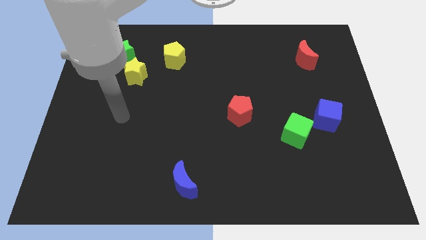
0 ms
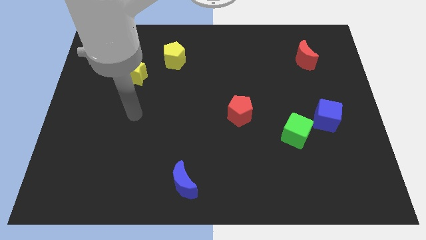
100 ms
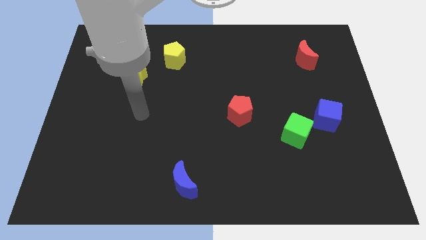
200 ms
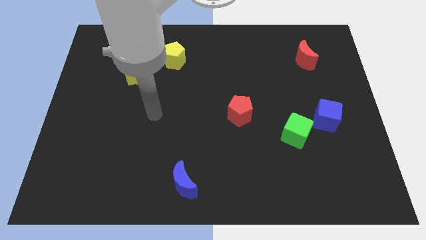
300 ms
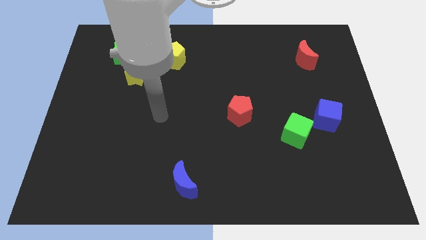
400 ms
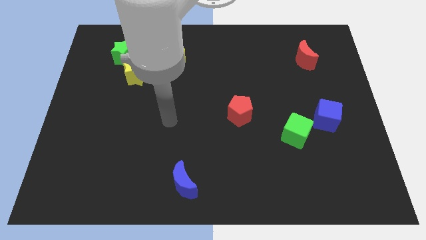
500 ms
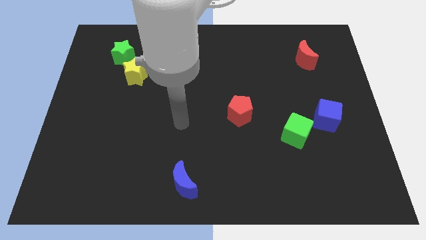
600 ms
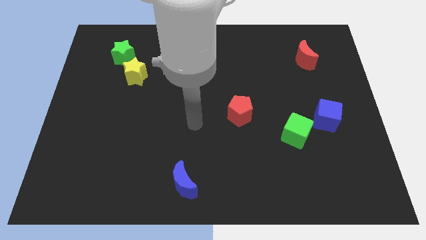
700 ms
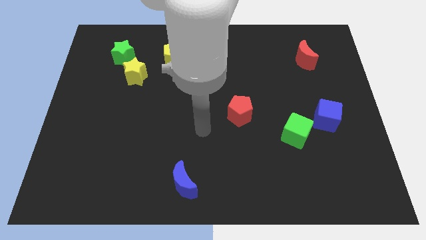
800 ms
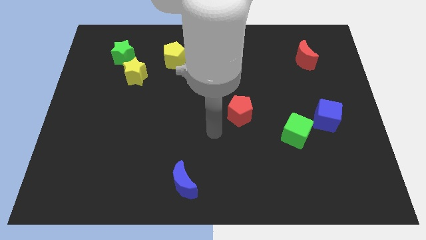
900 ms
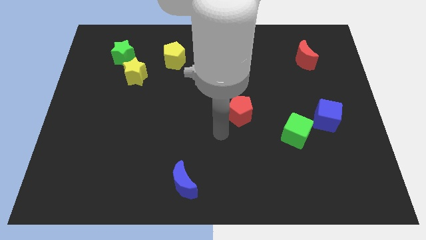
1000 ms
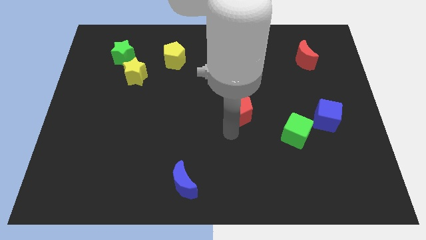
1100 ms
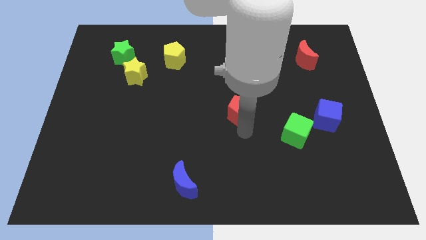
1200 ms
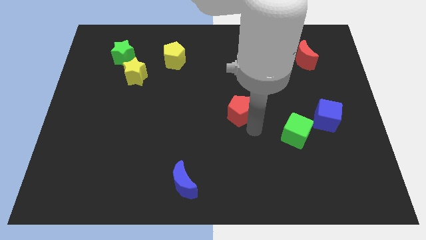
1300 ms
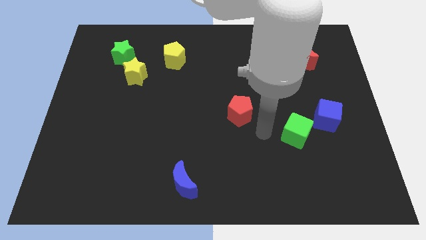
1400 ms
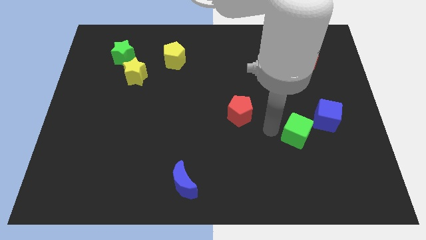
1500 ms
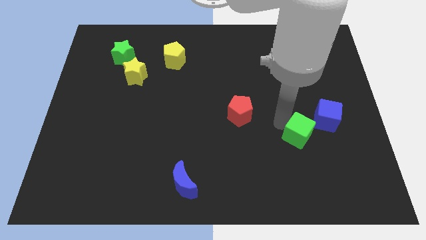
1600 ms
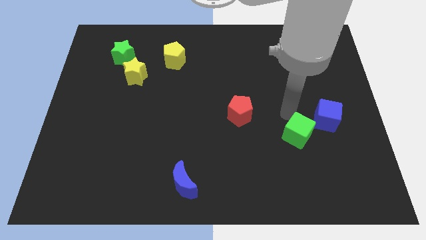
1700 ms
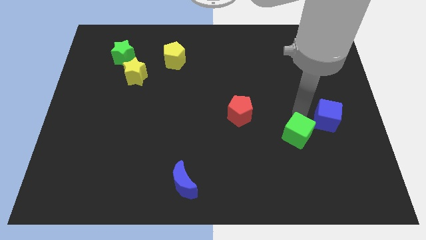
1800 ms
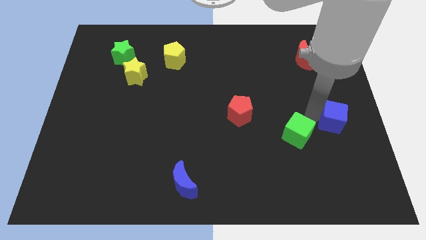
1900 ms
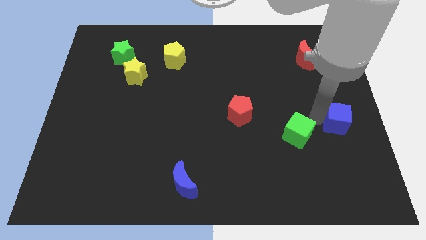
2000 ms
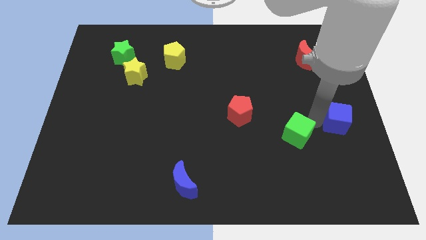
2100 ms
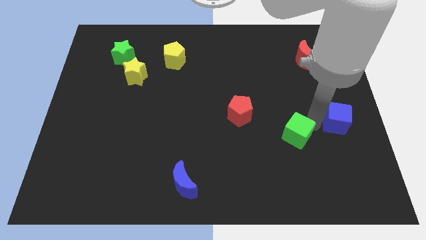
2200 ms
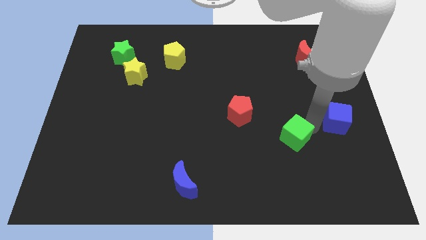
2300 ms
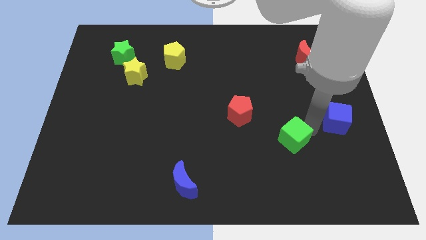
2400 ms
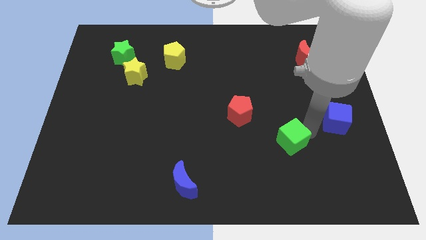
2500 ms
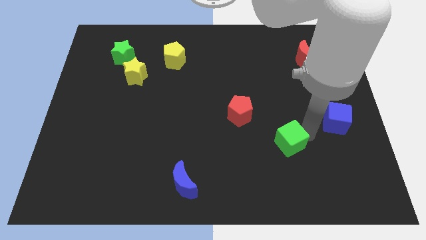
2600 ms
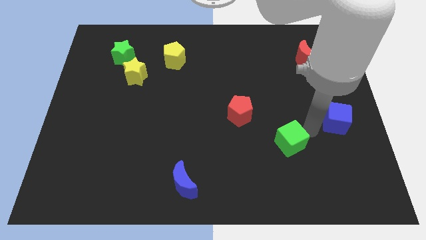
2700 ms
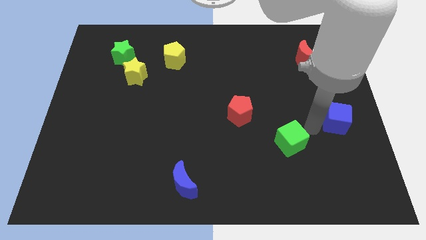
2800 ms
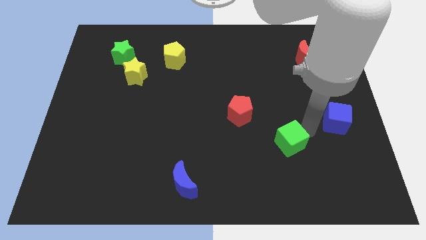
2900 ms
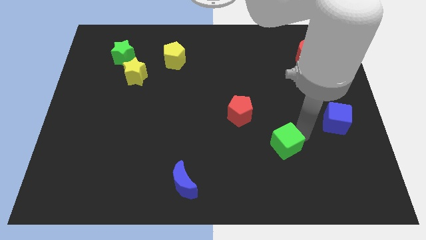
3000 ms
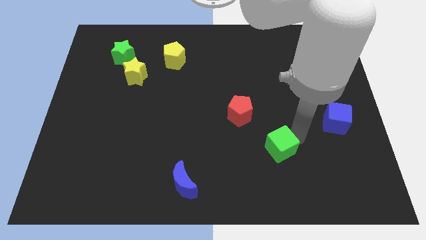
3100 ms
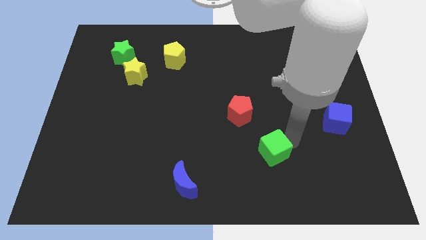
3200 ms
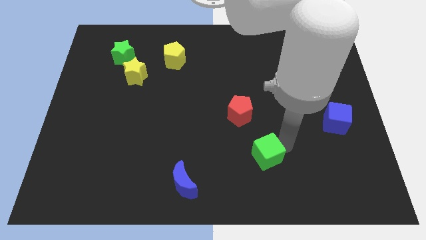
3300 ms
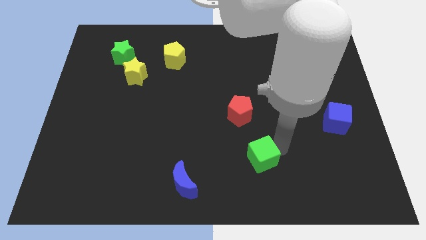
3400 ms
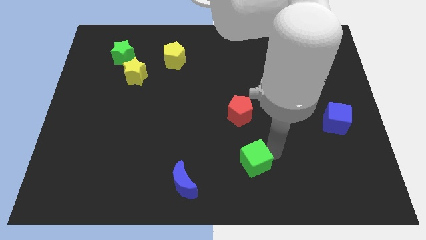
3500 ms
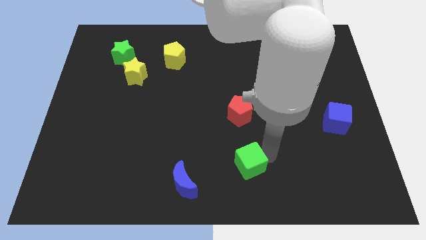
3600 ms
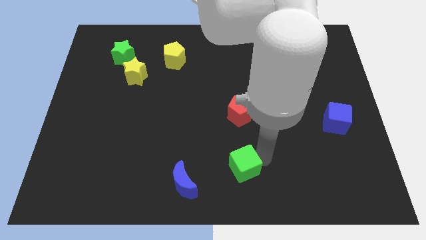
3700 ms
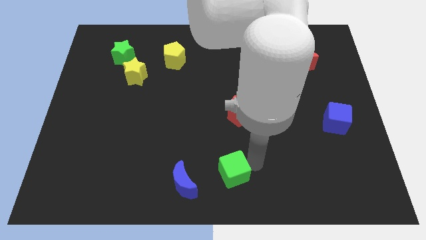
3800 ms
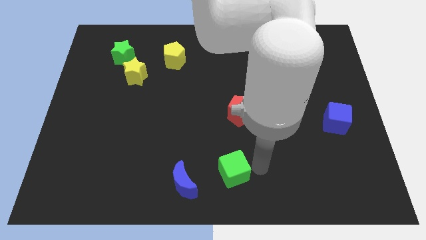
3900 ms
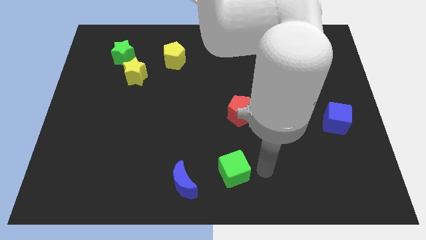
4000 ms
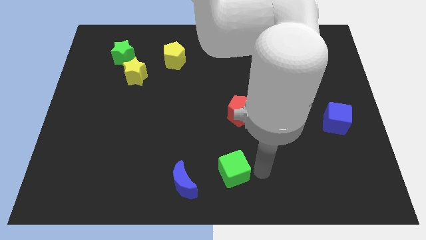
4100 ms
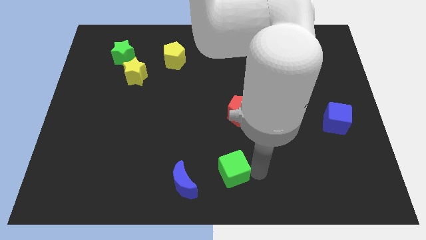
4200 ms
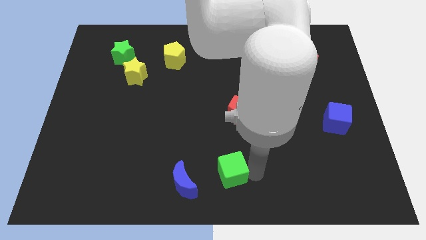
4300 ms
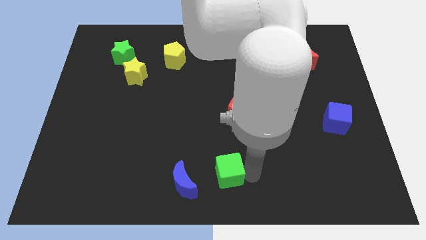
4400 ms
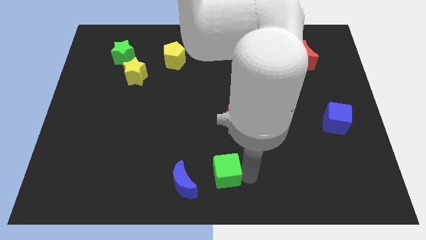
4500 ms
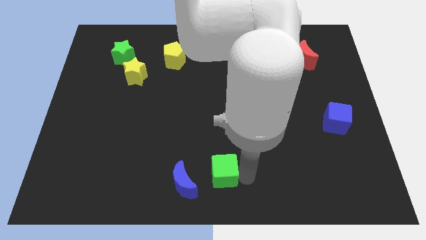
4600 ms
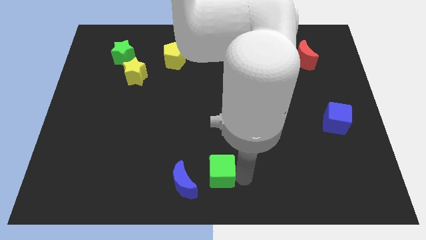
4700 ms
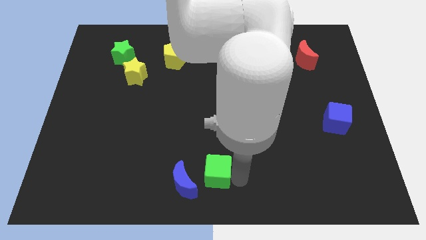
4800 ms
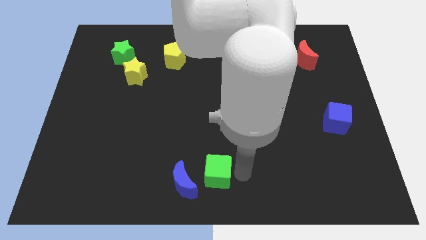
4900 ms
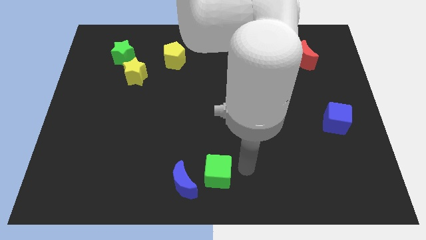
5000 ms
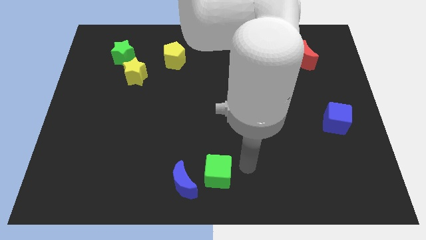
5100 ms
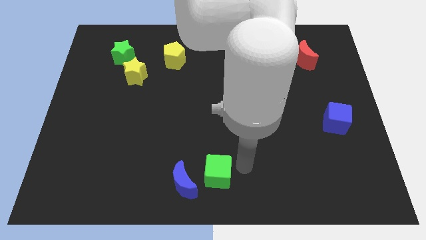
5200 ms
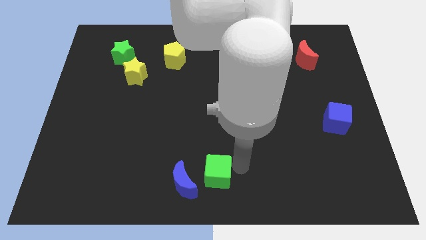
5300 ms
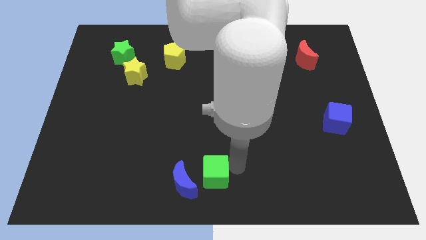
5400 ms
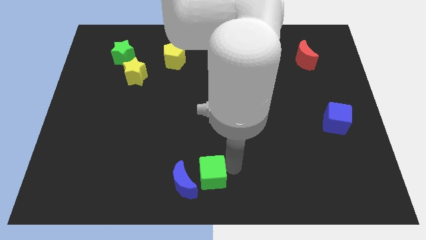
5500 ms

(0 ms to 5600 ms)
put the green cube to the blue moon

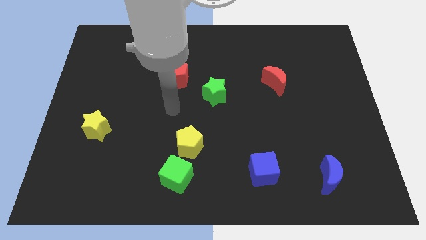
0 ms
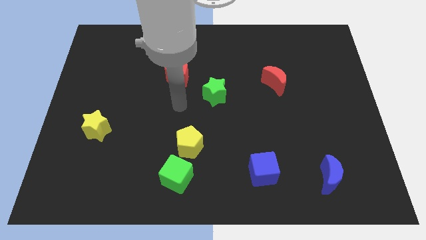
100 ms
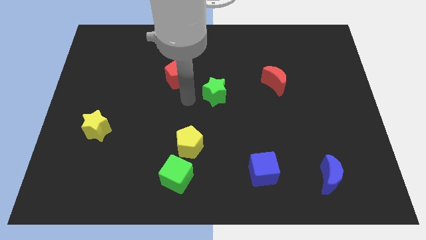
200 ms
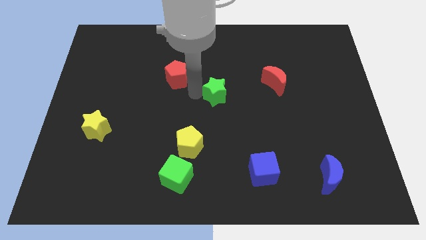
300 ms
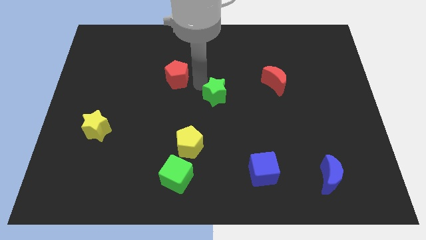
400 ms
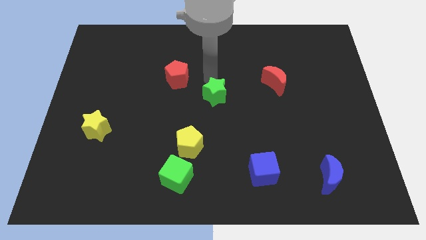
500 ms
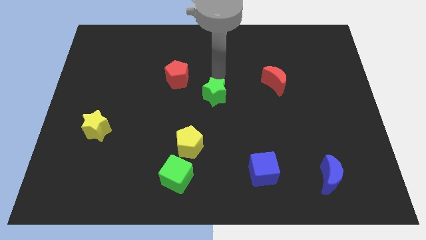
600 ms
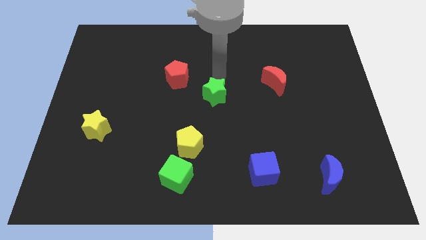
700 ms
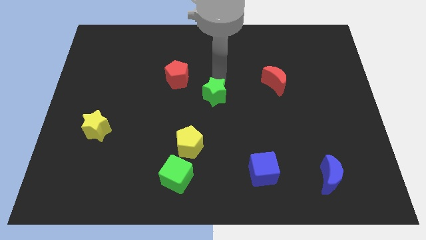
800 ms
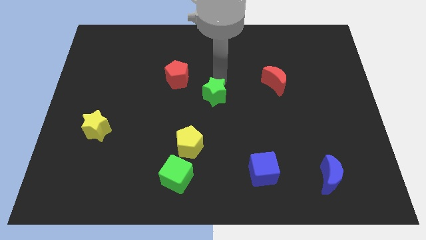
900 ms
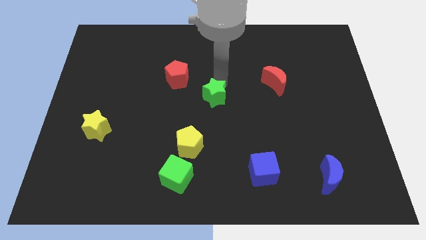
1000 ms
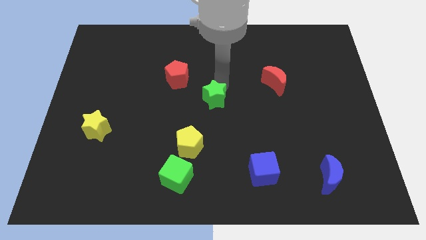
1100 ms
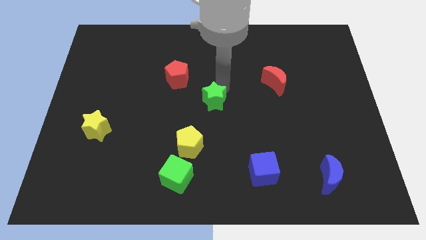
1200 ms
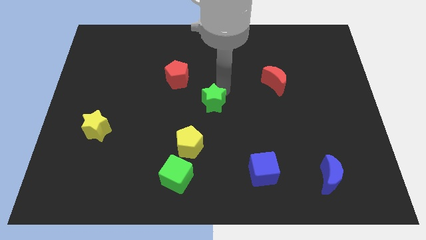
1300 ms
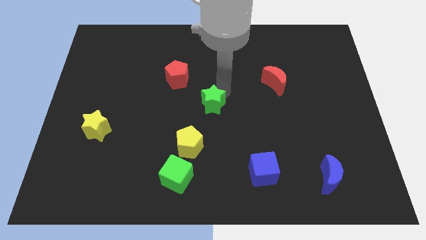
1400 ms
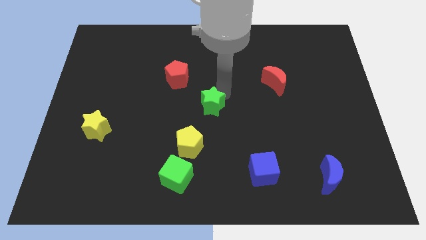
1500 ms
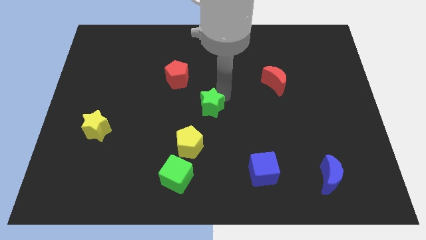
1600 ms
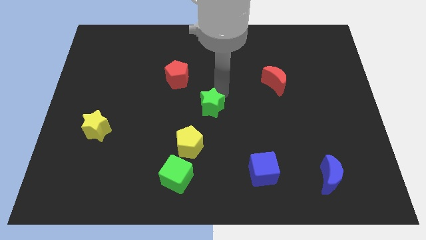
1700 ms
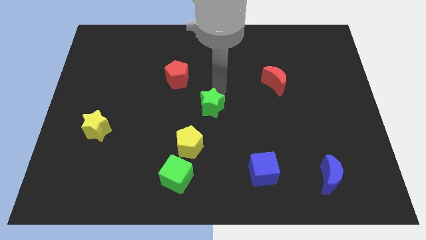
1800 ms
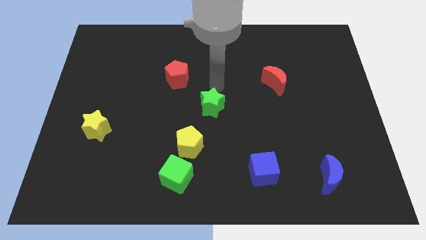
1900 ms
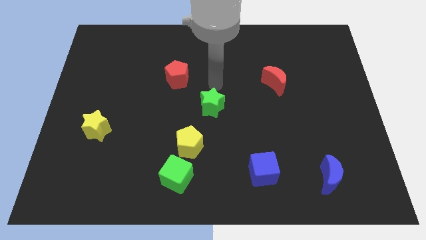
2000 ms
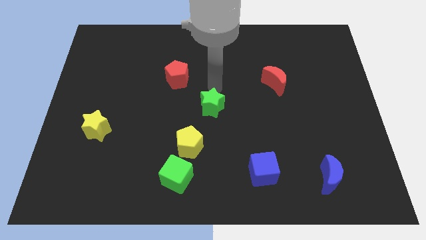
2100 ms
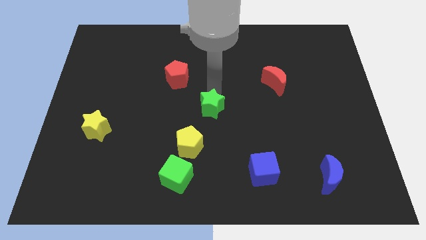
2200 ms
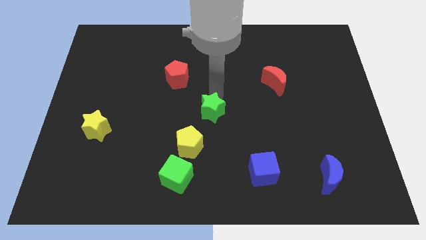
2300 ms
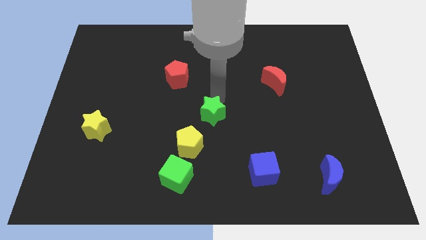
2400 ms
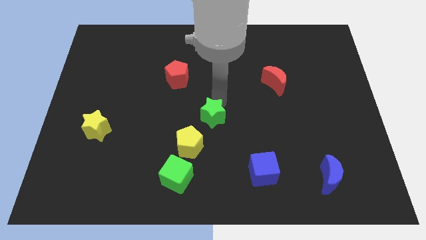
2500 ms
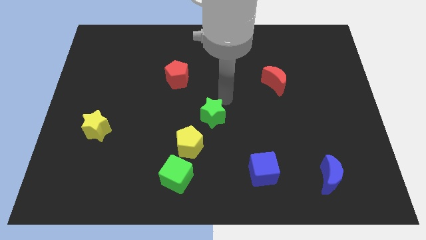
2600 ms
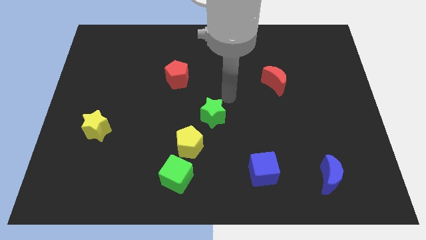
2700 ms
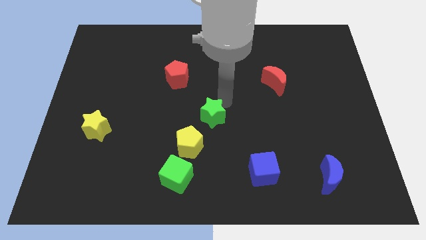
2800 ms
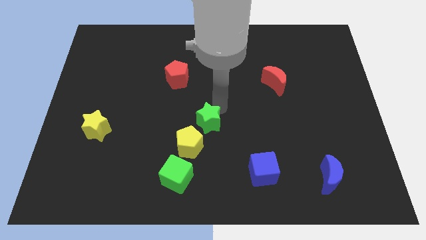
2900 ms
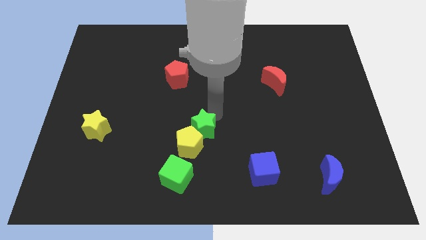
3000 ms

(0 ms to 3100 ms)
slide the green star next to the yellow pentagon
